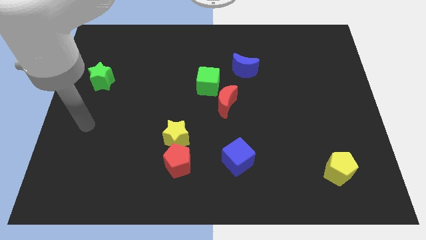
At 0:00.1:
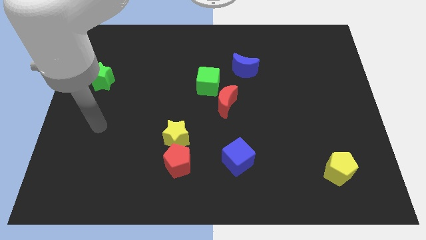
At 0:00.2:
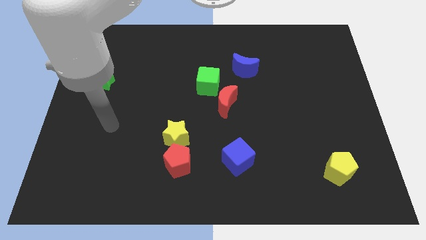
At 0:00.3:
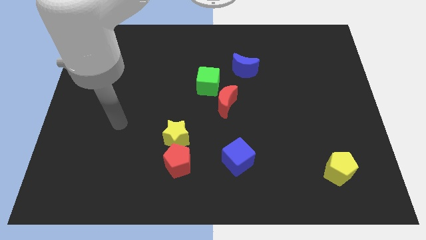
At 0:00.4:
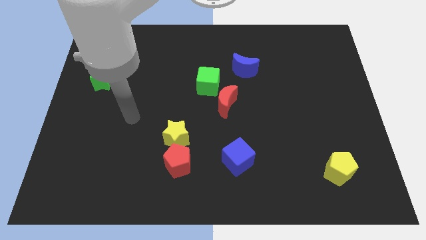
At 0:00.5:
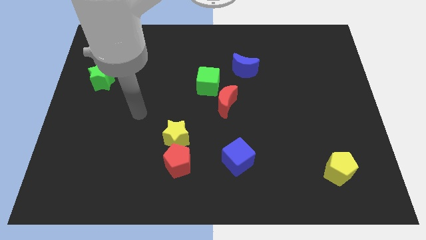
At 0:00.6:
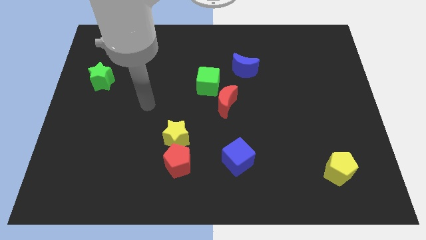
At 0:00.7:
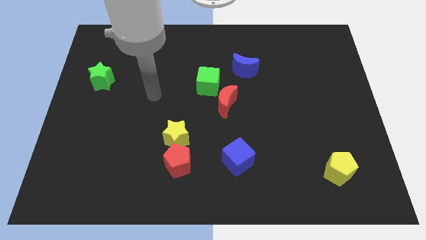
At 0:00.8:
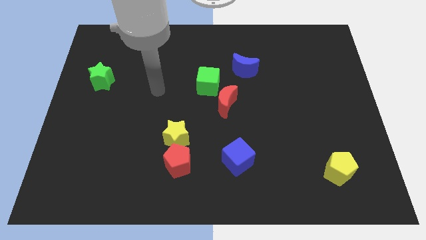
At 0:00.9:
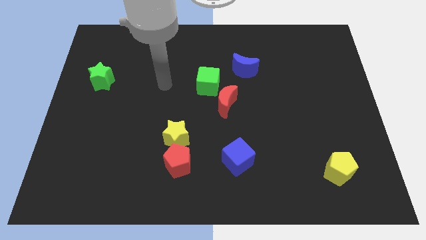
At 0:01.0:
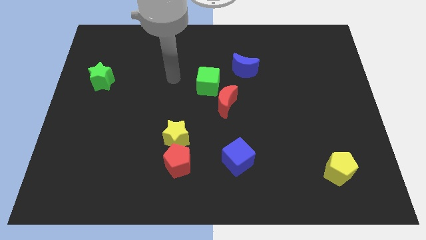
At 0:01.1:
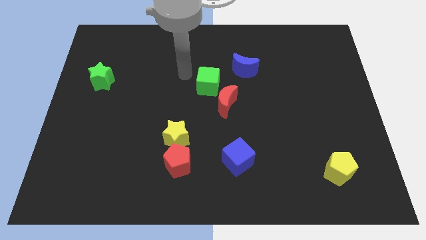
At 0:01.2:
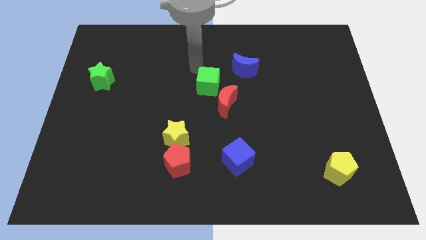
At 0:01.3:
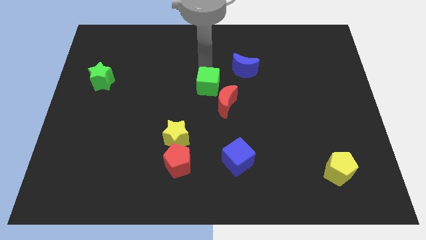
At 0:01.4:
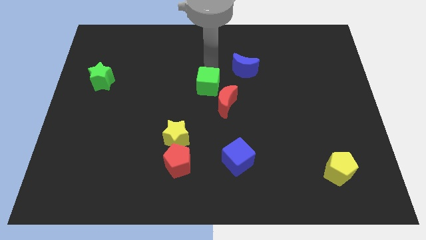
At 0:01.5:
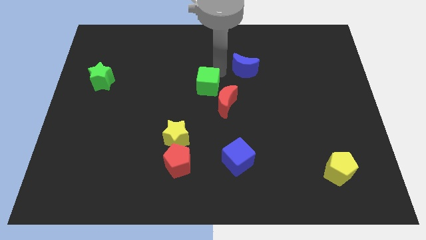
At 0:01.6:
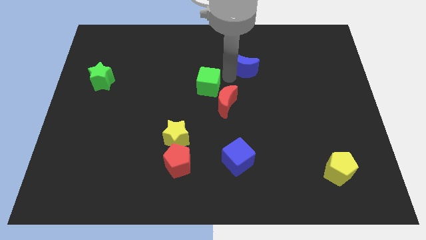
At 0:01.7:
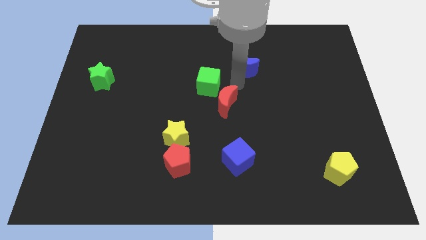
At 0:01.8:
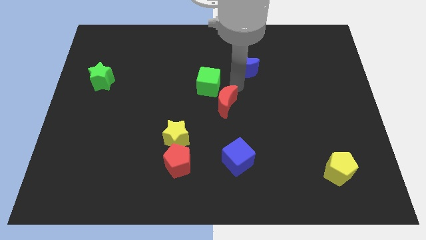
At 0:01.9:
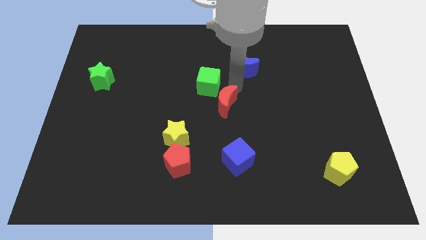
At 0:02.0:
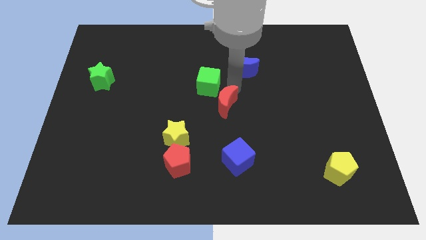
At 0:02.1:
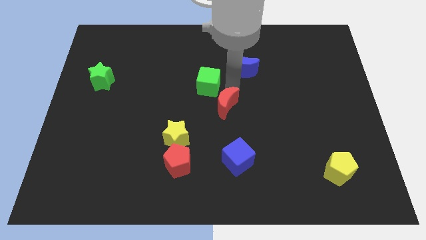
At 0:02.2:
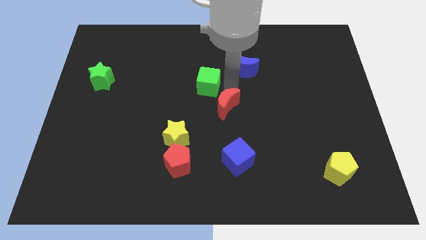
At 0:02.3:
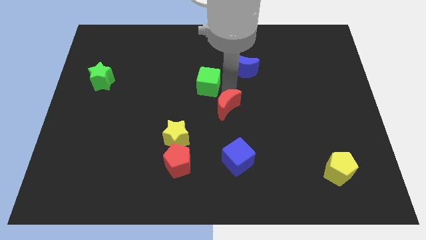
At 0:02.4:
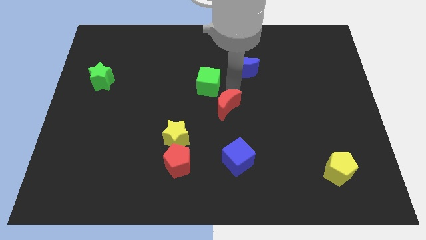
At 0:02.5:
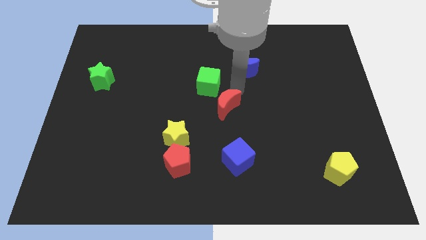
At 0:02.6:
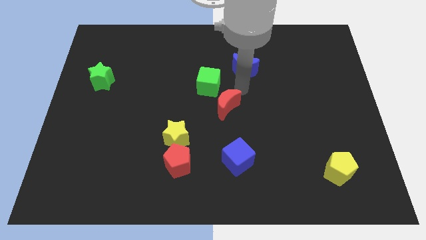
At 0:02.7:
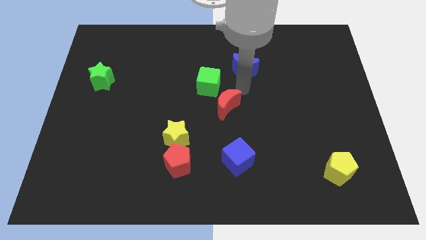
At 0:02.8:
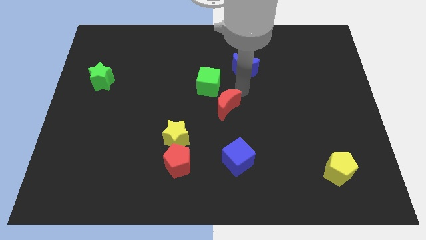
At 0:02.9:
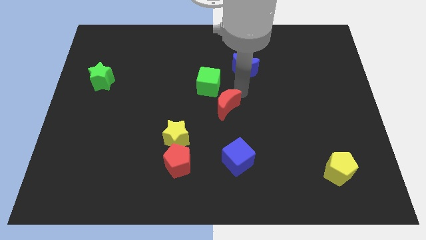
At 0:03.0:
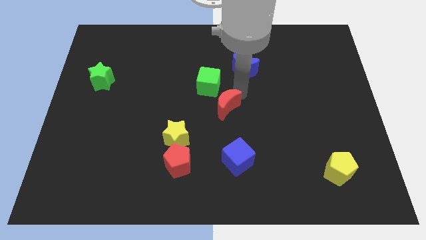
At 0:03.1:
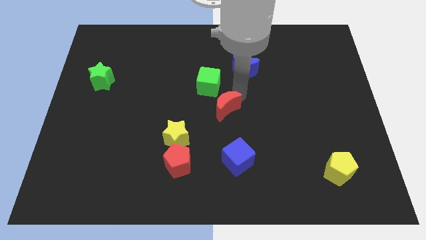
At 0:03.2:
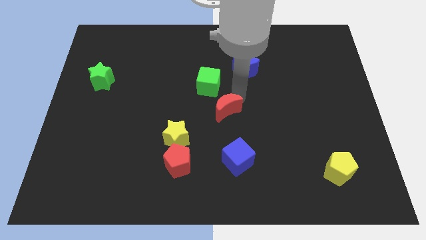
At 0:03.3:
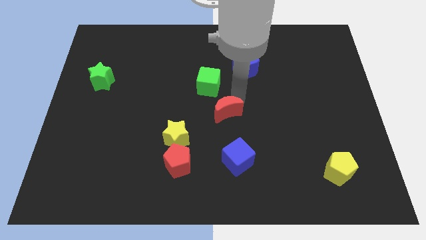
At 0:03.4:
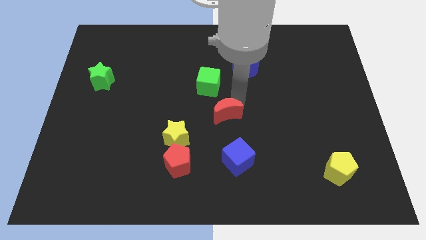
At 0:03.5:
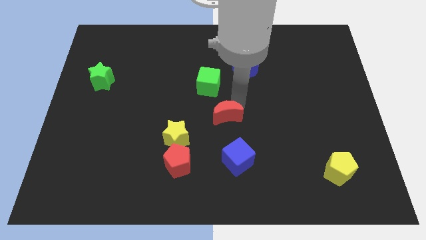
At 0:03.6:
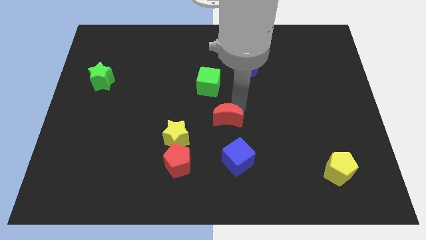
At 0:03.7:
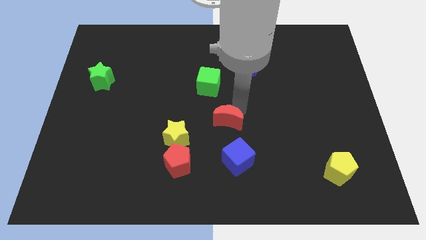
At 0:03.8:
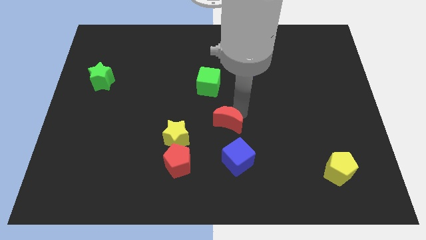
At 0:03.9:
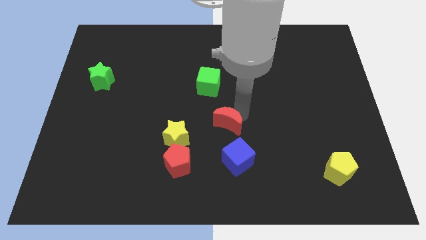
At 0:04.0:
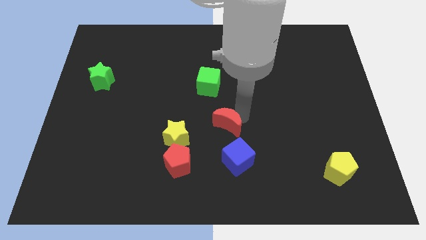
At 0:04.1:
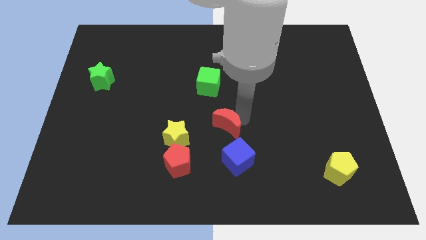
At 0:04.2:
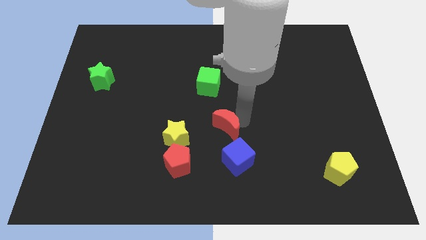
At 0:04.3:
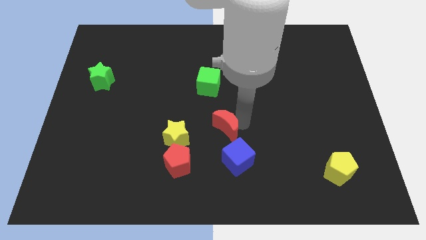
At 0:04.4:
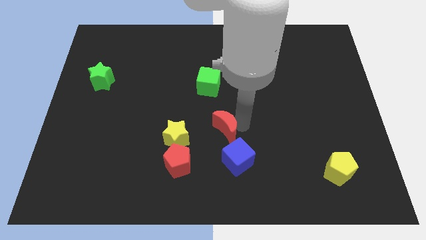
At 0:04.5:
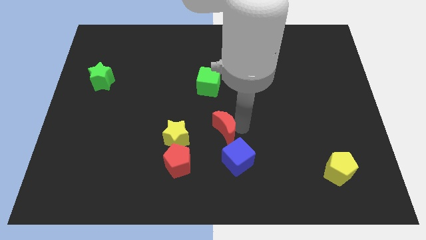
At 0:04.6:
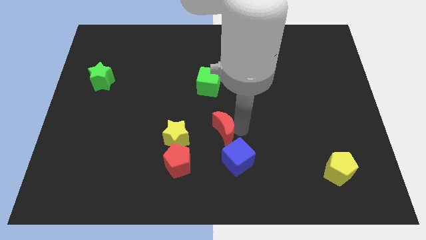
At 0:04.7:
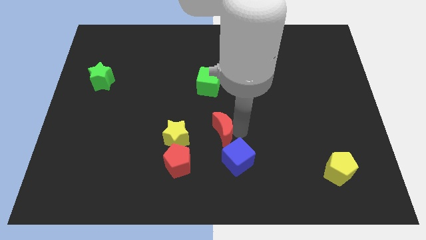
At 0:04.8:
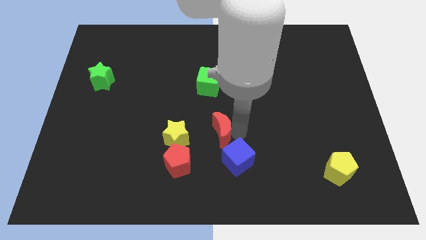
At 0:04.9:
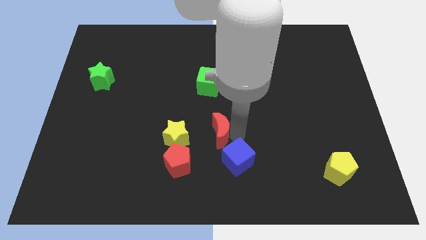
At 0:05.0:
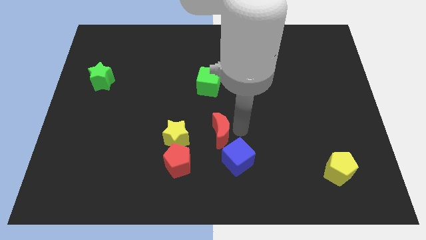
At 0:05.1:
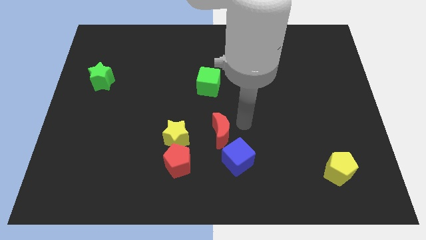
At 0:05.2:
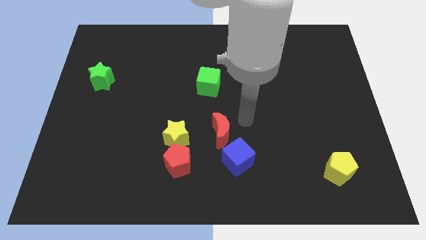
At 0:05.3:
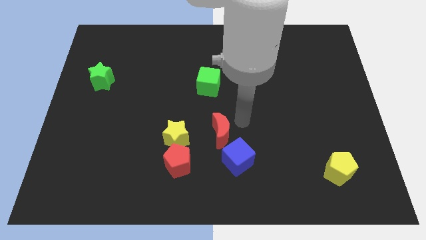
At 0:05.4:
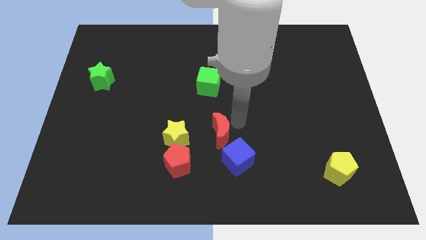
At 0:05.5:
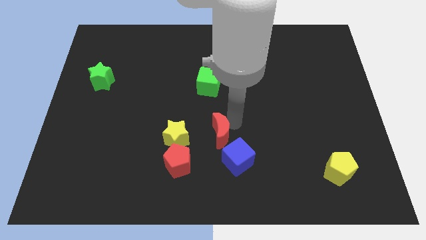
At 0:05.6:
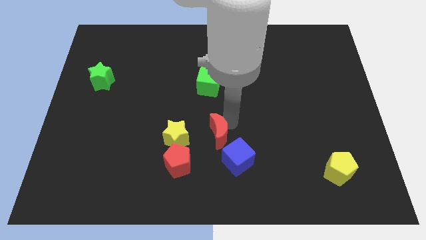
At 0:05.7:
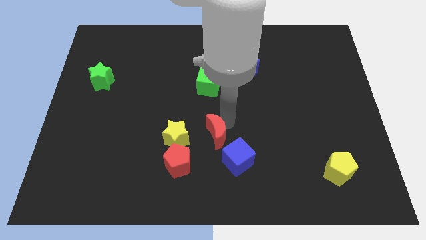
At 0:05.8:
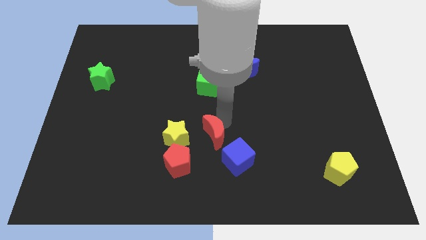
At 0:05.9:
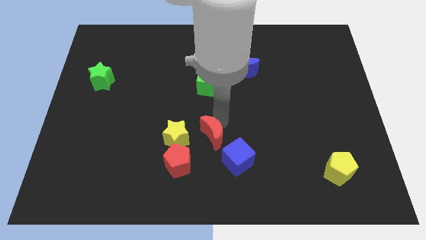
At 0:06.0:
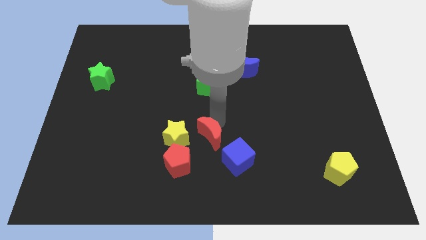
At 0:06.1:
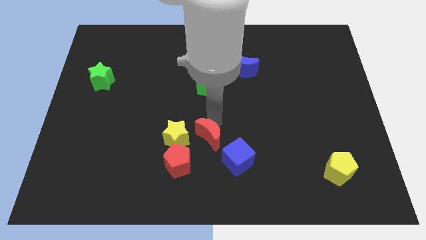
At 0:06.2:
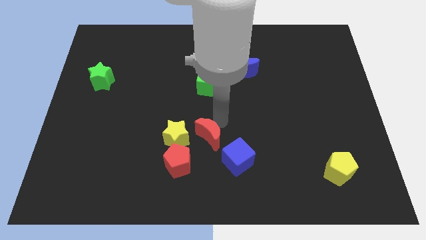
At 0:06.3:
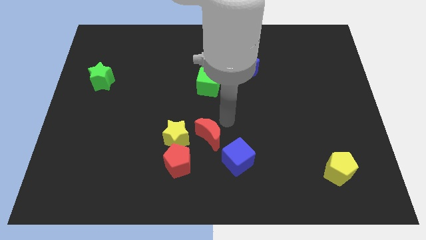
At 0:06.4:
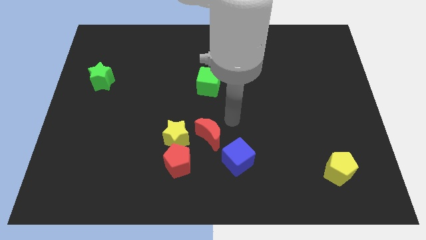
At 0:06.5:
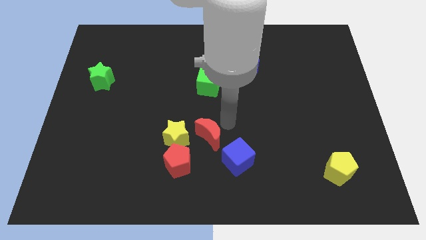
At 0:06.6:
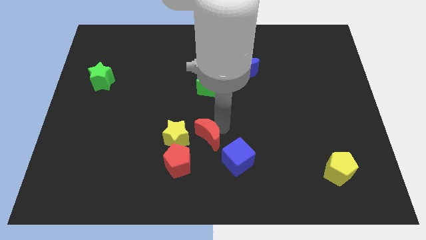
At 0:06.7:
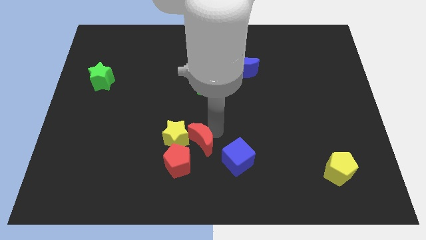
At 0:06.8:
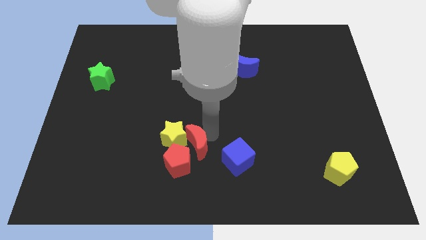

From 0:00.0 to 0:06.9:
push the red moon next to the red pentagon

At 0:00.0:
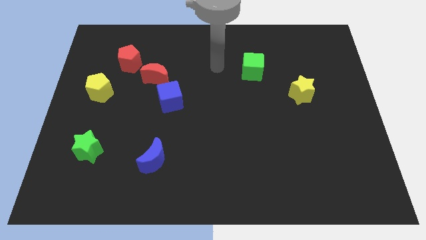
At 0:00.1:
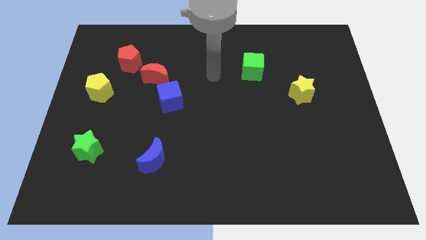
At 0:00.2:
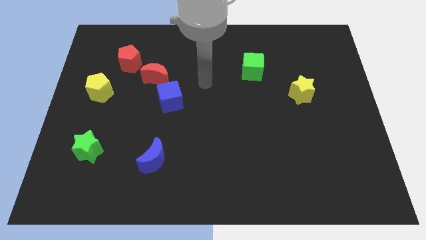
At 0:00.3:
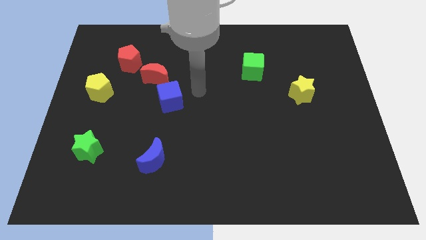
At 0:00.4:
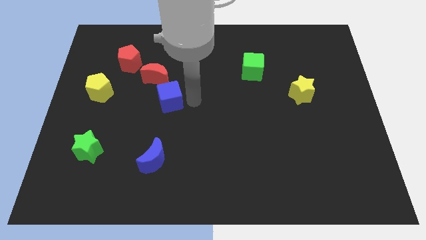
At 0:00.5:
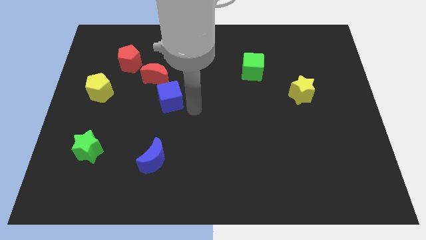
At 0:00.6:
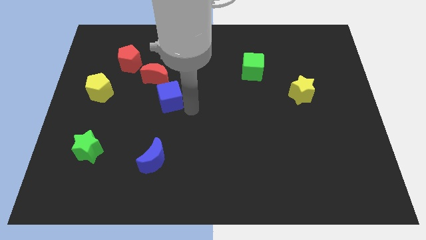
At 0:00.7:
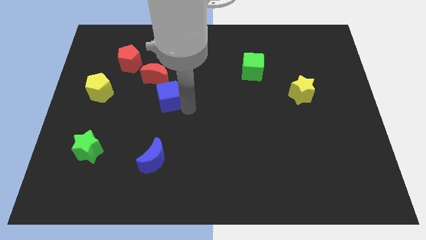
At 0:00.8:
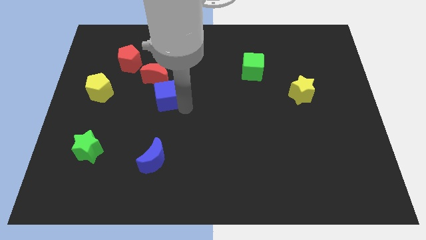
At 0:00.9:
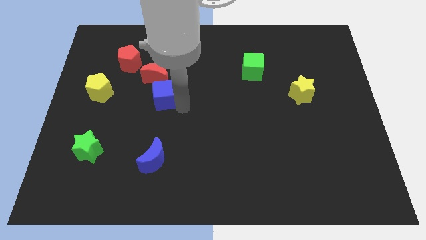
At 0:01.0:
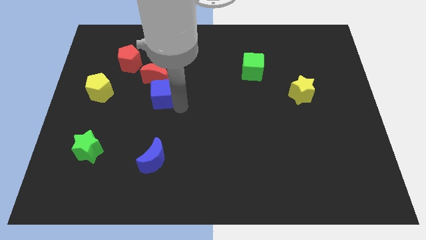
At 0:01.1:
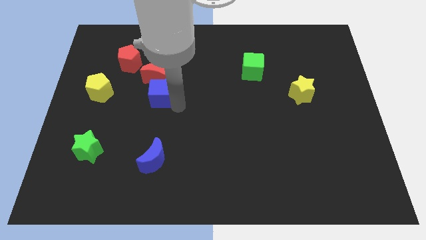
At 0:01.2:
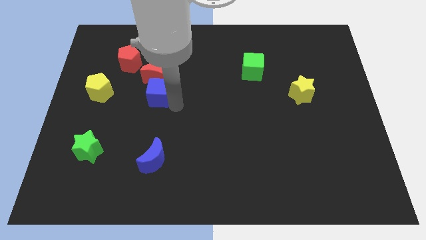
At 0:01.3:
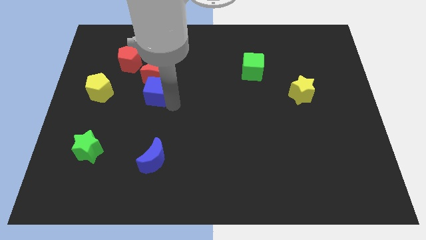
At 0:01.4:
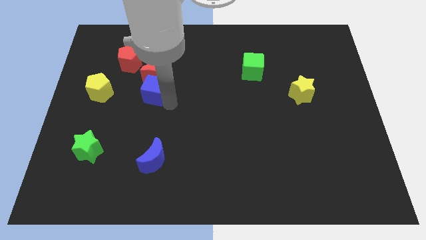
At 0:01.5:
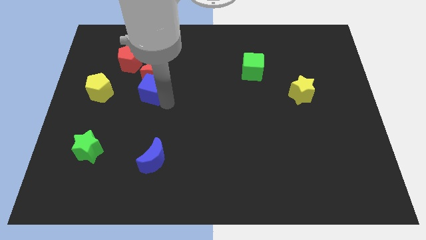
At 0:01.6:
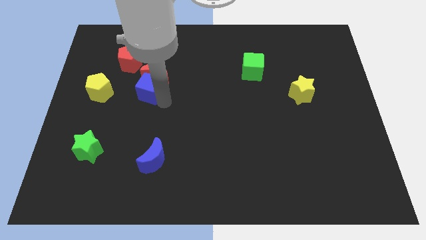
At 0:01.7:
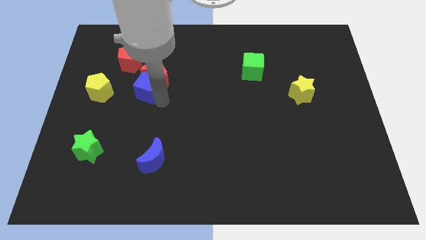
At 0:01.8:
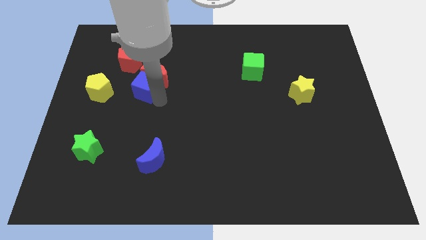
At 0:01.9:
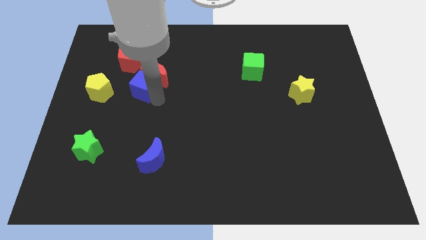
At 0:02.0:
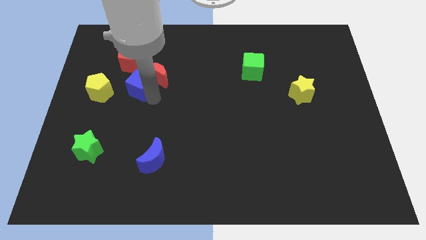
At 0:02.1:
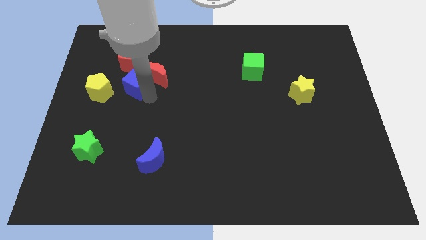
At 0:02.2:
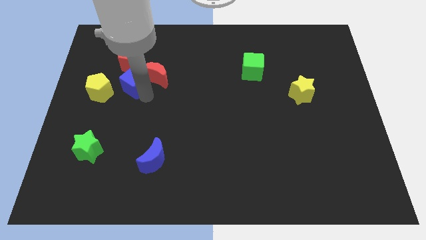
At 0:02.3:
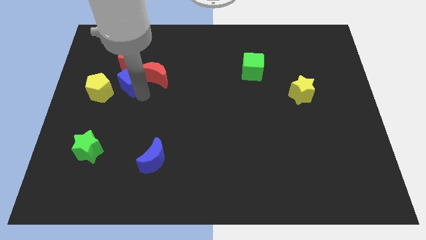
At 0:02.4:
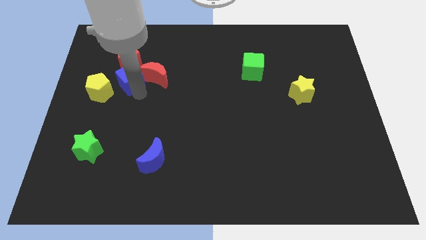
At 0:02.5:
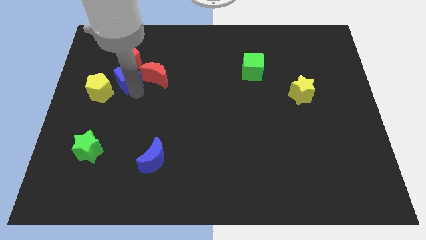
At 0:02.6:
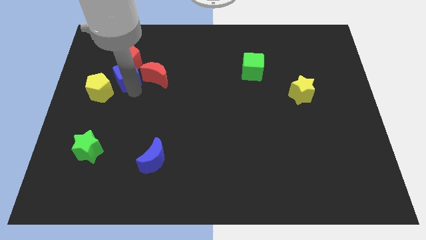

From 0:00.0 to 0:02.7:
put the blue cube to the red pentagon
